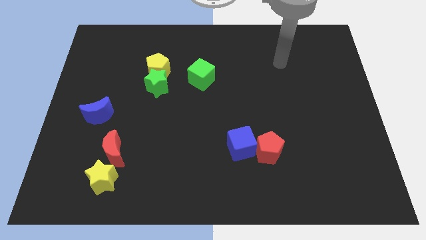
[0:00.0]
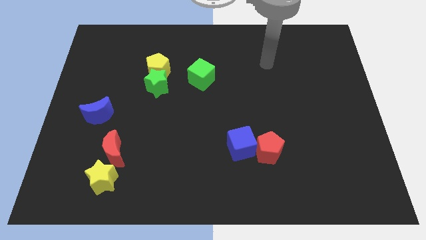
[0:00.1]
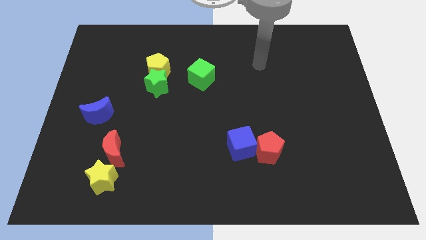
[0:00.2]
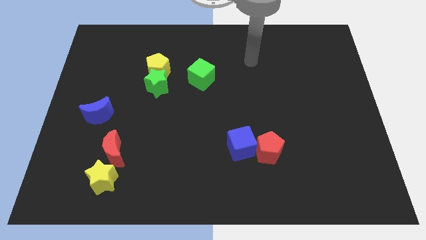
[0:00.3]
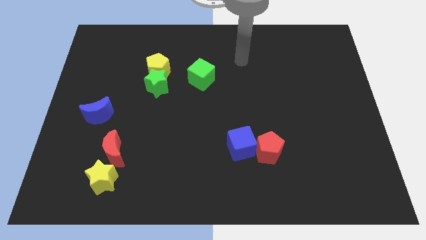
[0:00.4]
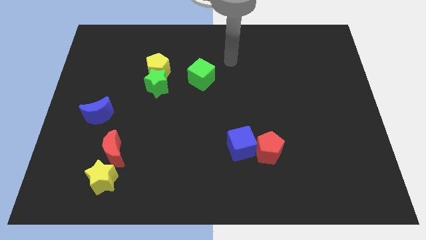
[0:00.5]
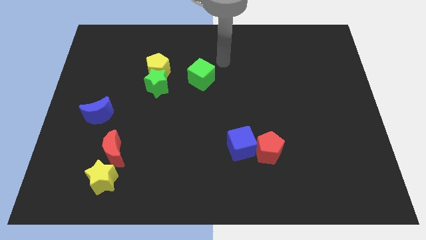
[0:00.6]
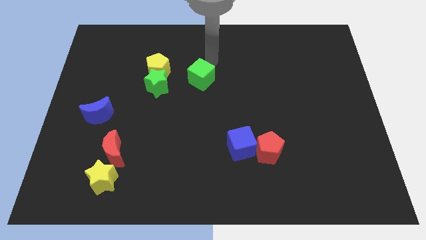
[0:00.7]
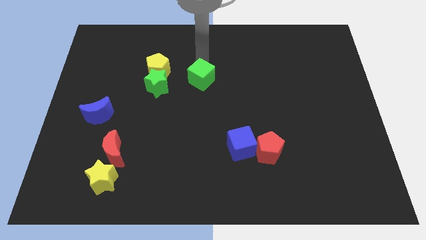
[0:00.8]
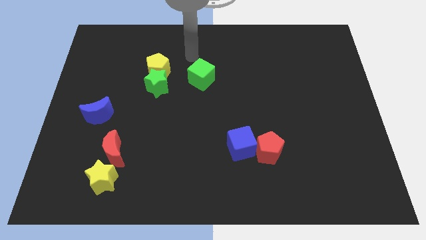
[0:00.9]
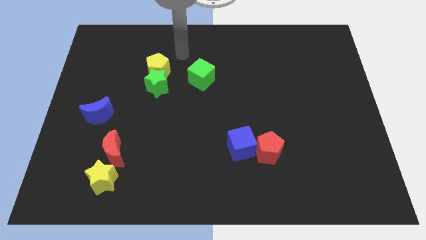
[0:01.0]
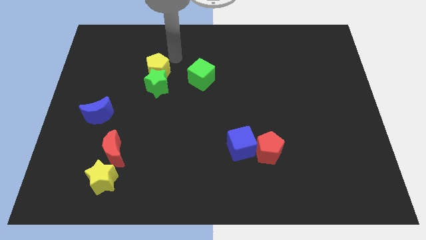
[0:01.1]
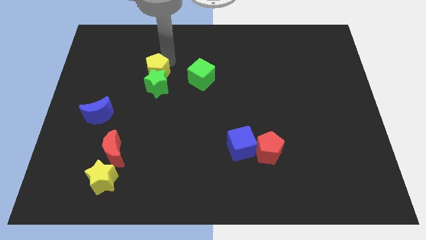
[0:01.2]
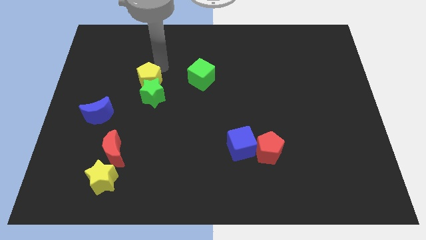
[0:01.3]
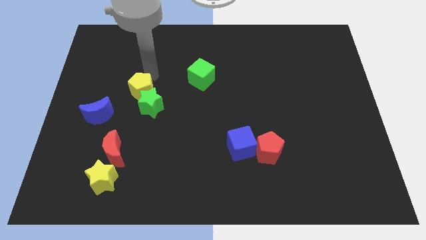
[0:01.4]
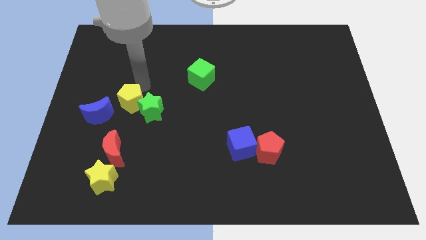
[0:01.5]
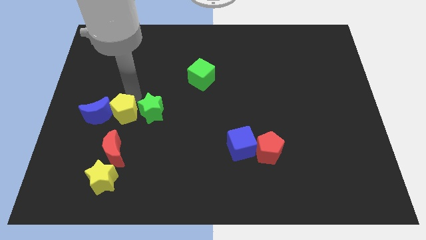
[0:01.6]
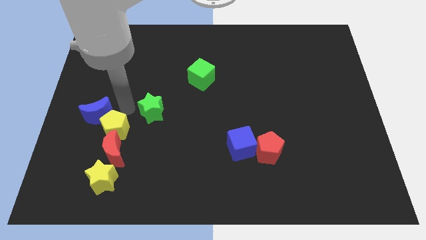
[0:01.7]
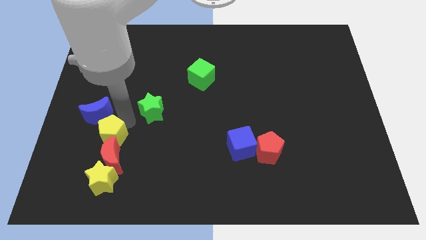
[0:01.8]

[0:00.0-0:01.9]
separate the green star from the yellow pentagon

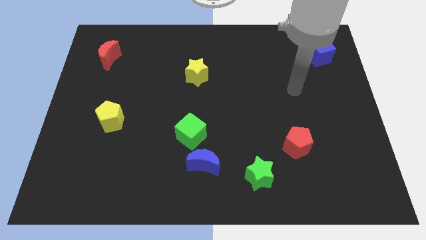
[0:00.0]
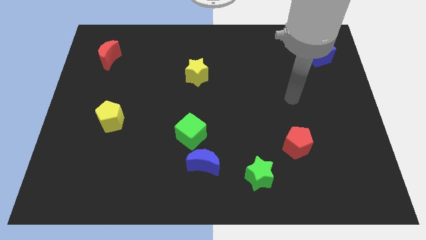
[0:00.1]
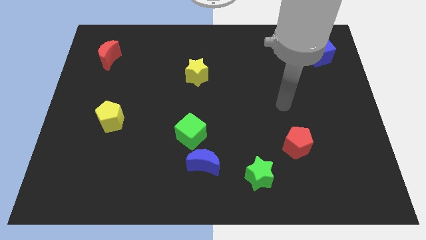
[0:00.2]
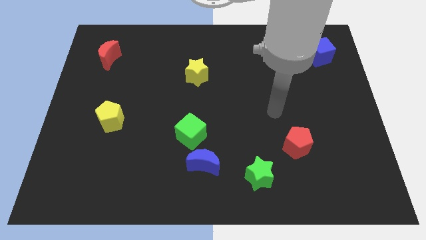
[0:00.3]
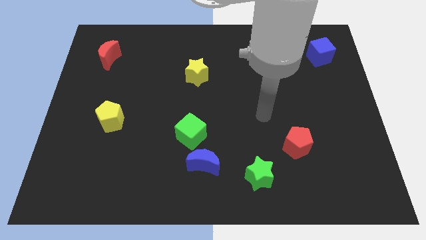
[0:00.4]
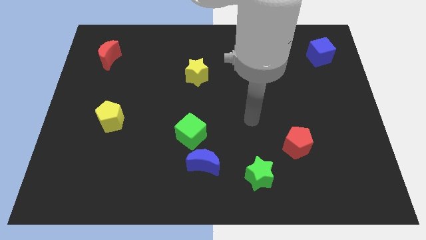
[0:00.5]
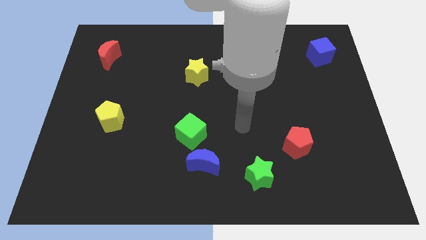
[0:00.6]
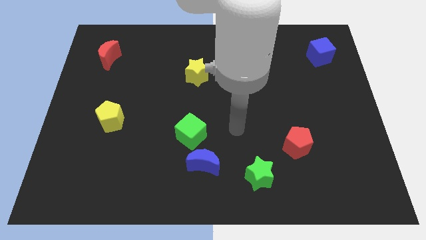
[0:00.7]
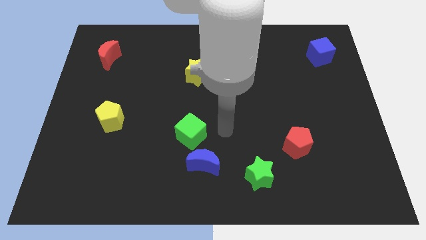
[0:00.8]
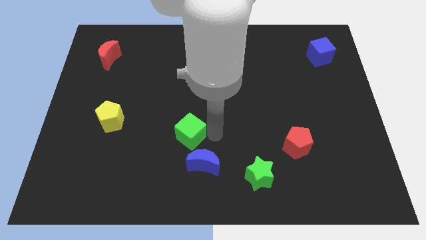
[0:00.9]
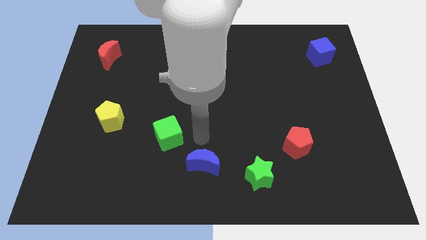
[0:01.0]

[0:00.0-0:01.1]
separate the blue moon from the green cube

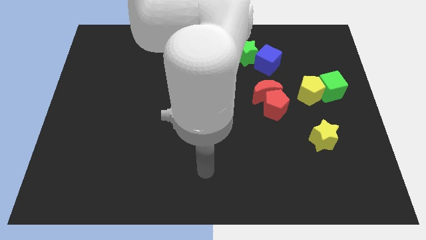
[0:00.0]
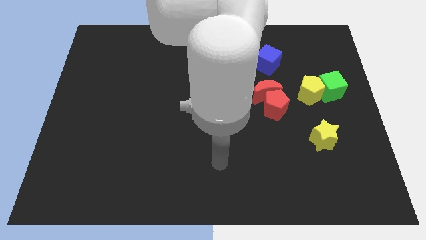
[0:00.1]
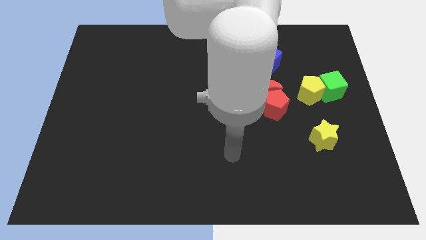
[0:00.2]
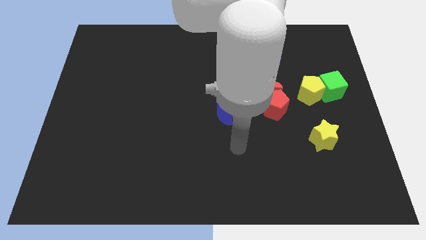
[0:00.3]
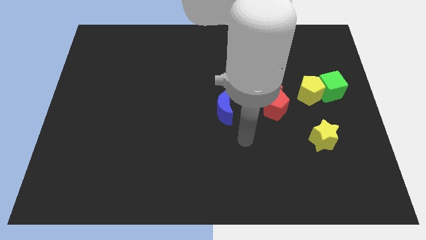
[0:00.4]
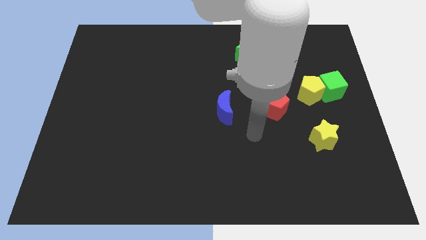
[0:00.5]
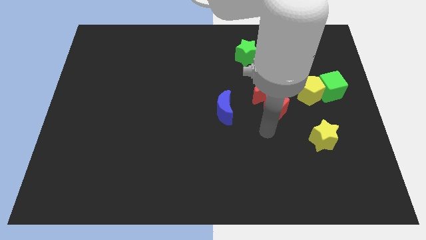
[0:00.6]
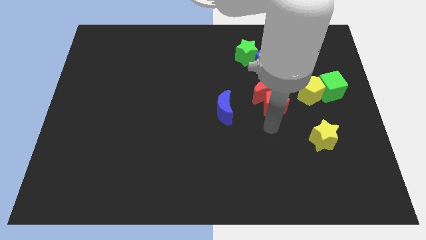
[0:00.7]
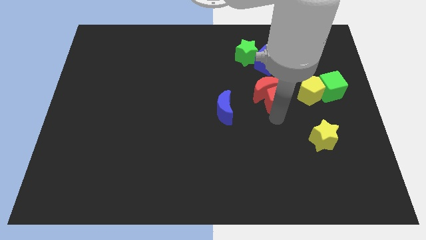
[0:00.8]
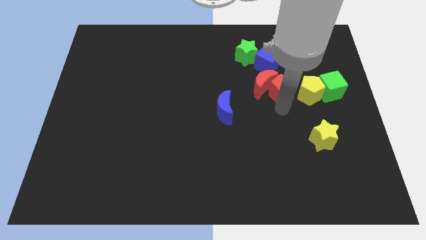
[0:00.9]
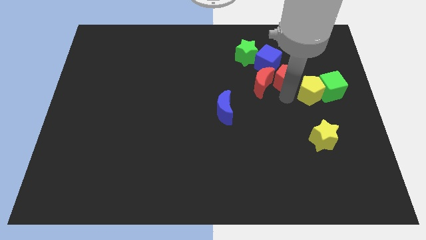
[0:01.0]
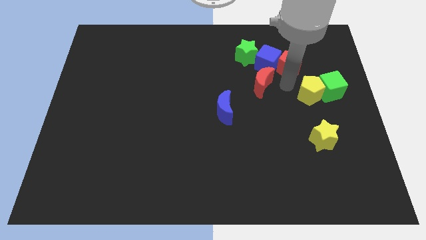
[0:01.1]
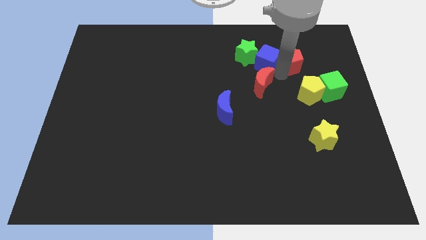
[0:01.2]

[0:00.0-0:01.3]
move the red moon away from the red pentagon

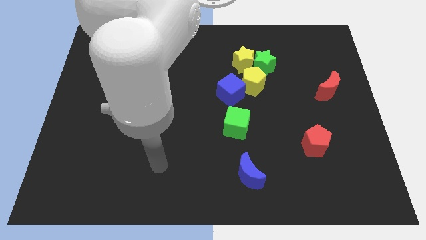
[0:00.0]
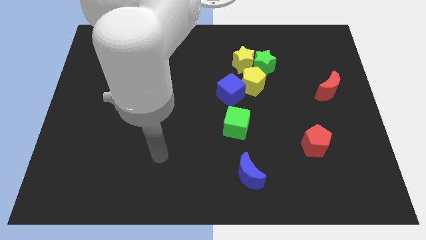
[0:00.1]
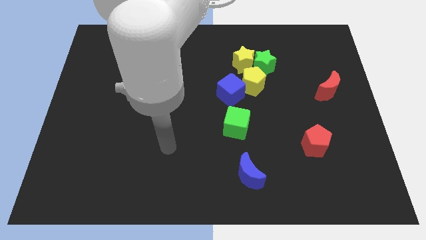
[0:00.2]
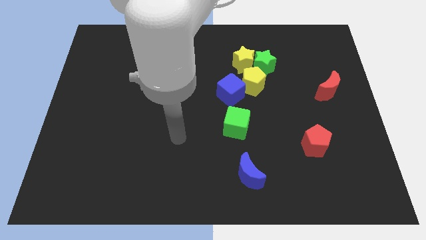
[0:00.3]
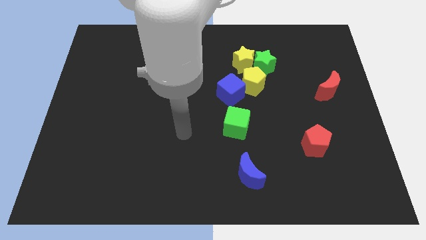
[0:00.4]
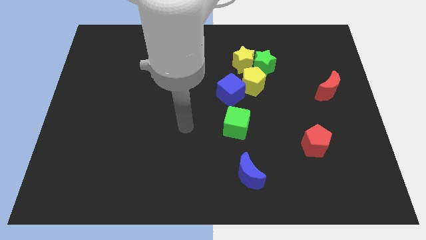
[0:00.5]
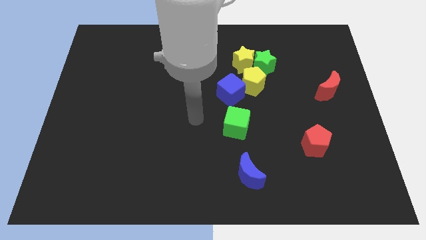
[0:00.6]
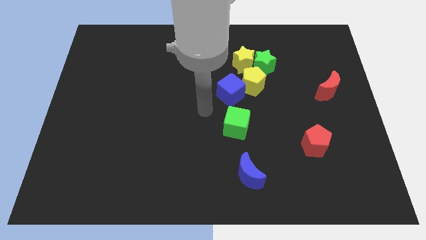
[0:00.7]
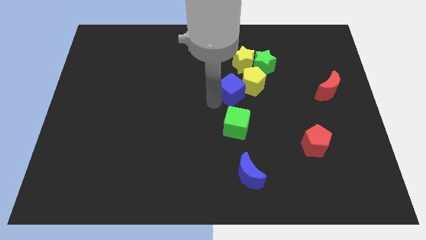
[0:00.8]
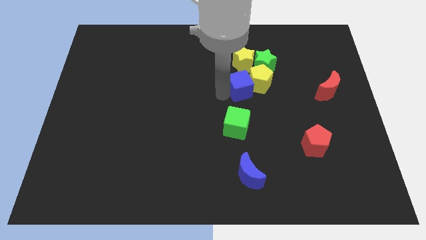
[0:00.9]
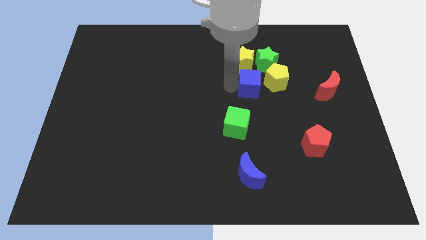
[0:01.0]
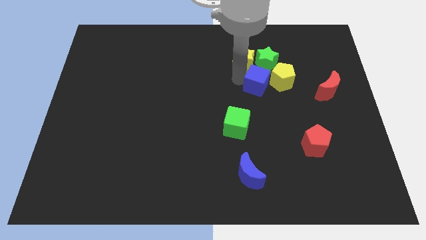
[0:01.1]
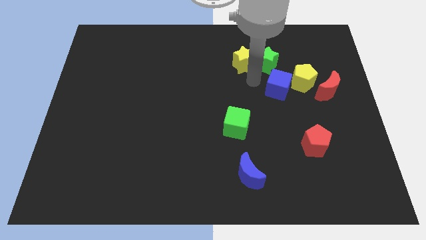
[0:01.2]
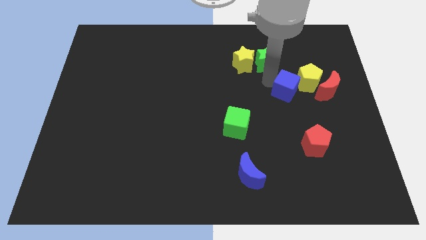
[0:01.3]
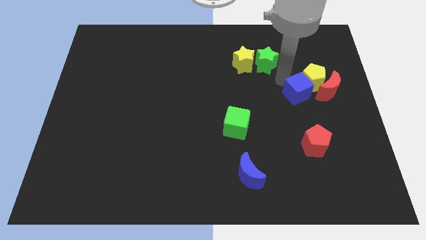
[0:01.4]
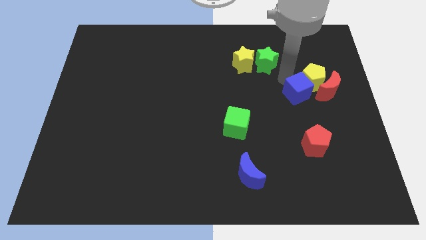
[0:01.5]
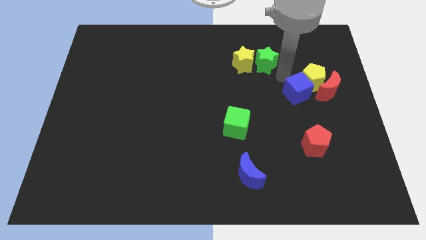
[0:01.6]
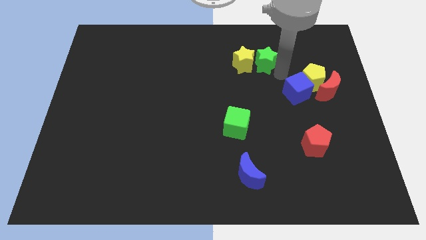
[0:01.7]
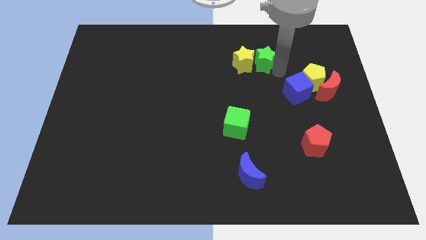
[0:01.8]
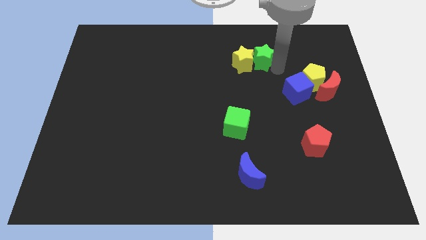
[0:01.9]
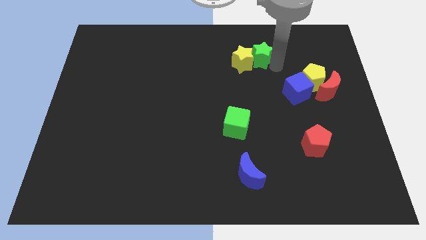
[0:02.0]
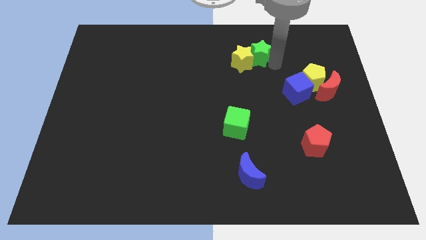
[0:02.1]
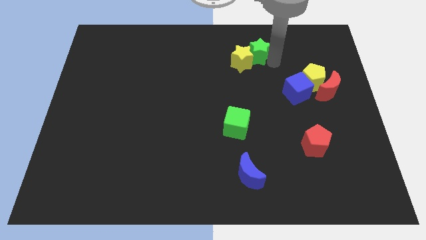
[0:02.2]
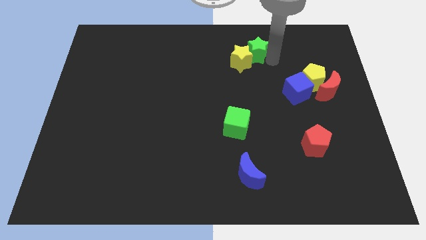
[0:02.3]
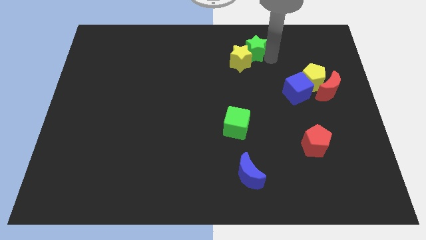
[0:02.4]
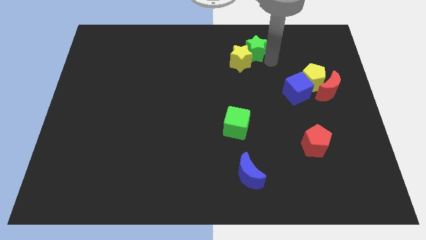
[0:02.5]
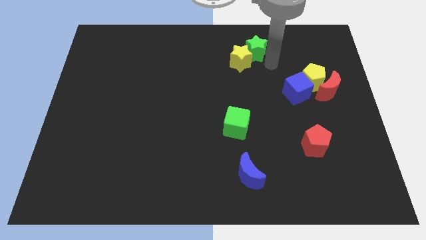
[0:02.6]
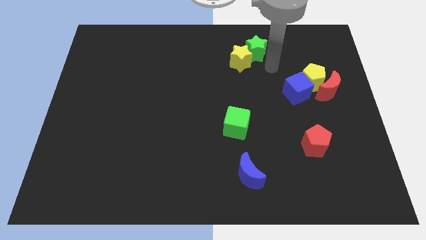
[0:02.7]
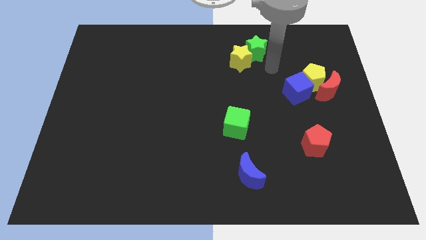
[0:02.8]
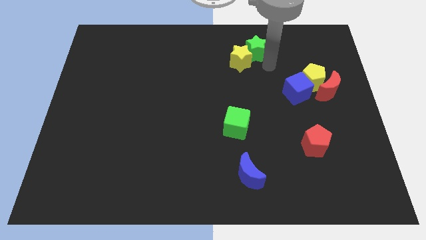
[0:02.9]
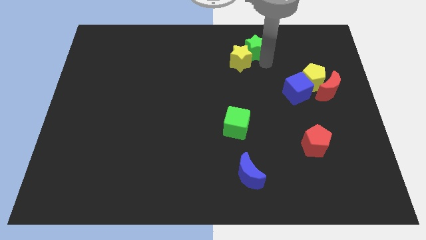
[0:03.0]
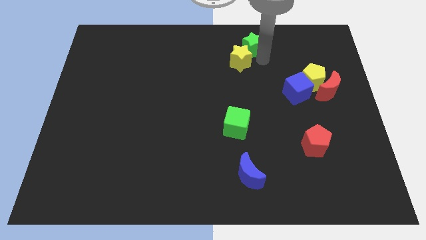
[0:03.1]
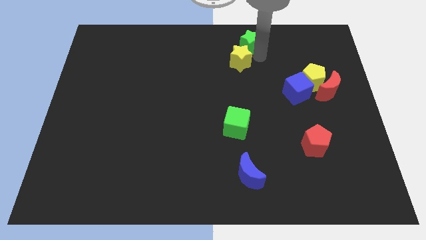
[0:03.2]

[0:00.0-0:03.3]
move the green star away from the yellow star and yellow pentagon

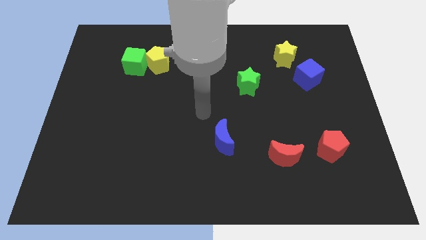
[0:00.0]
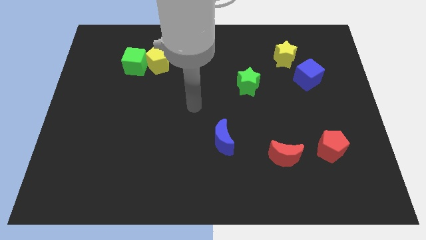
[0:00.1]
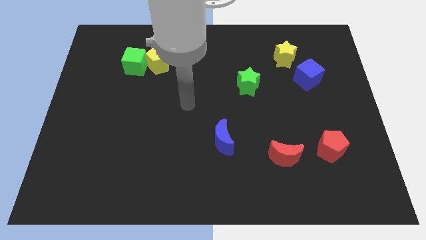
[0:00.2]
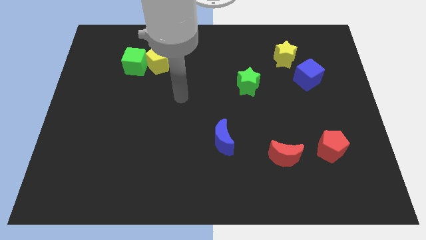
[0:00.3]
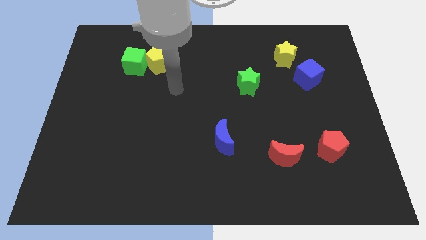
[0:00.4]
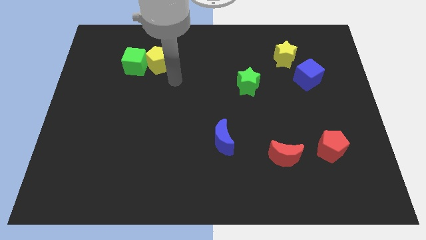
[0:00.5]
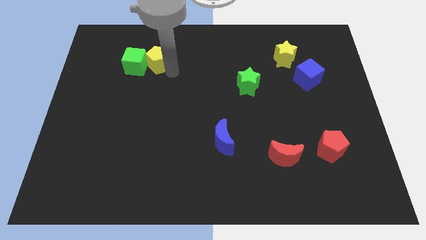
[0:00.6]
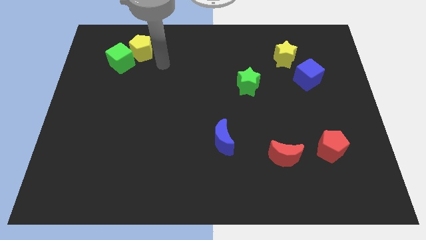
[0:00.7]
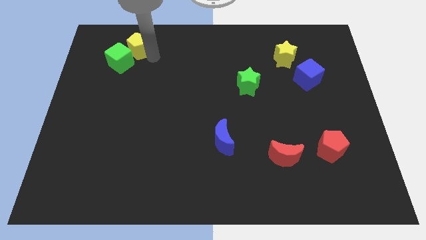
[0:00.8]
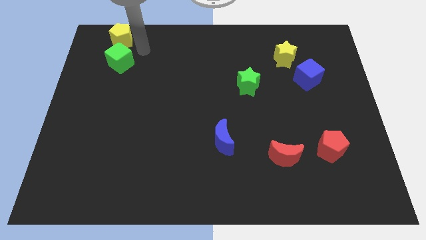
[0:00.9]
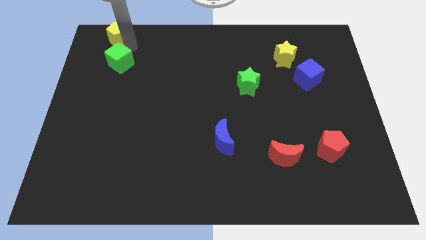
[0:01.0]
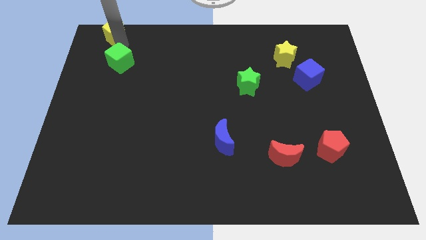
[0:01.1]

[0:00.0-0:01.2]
move the green cube away from the yellow pentagon

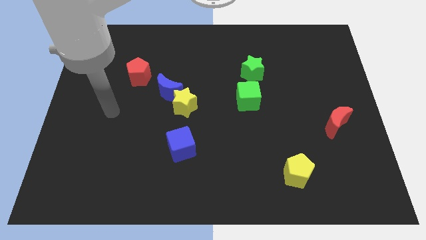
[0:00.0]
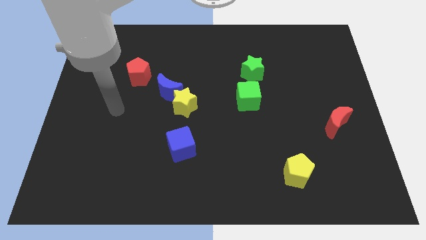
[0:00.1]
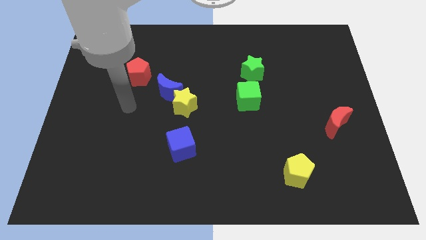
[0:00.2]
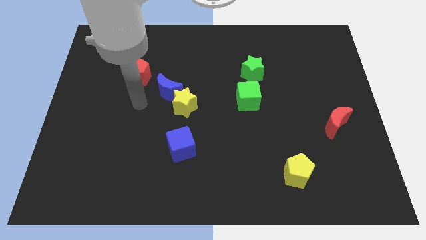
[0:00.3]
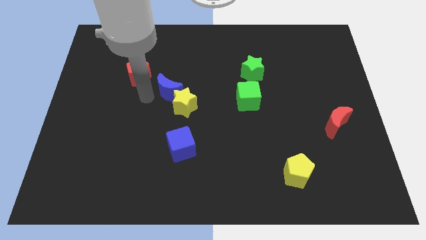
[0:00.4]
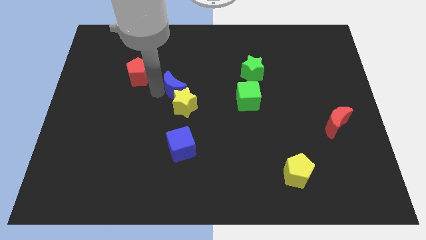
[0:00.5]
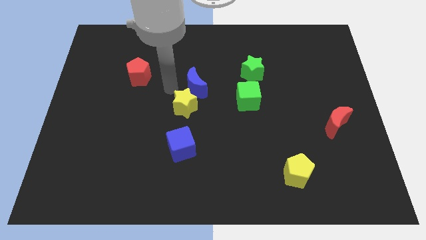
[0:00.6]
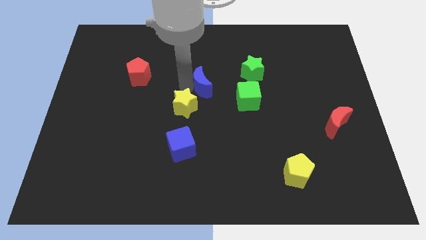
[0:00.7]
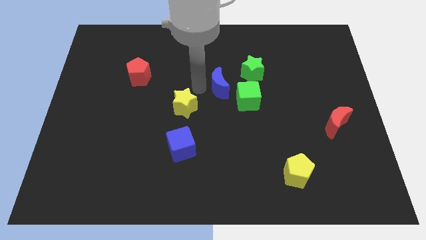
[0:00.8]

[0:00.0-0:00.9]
move the yellow star away from the blue moon
